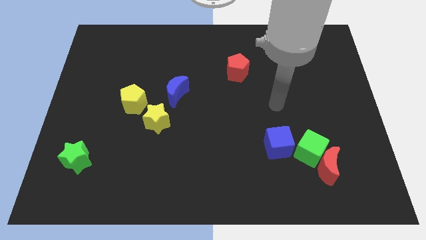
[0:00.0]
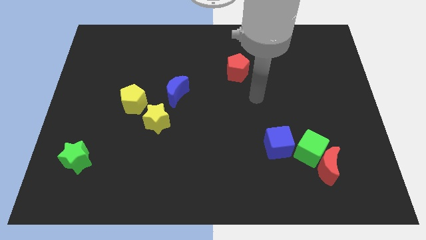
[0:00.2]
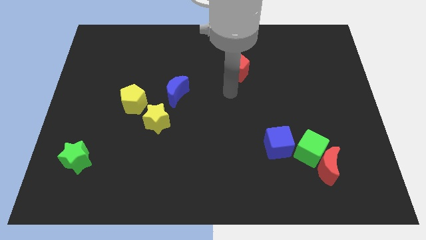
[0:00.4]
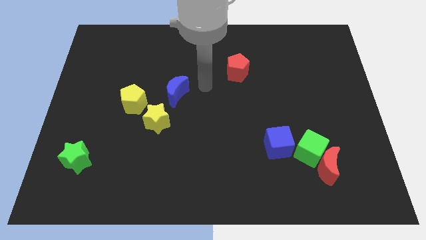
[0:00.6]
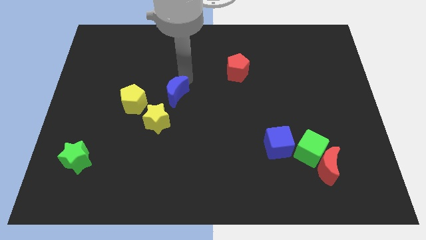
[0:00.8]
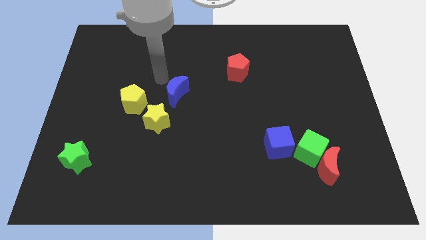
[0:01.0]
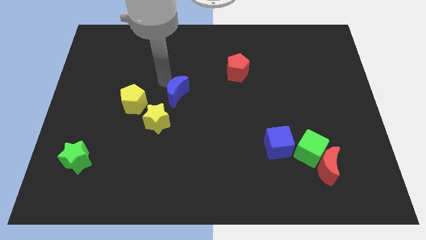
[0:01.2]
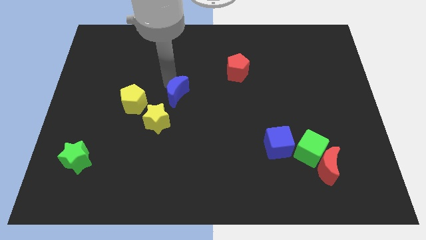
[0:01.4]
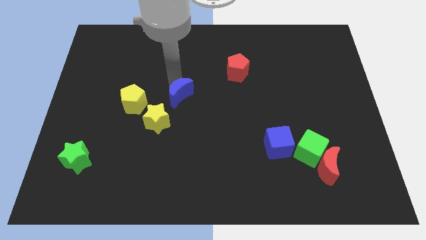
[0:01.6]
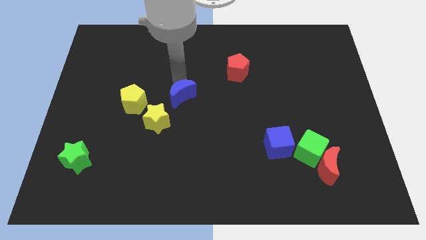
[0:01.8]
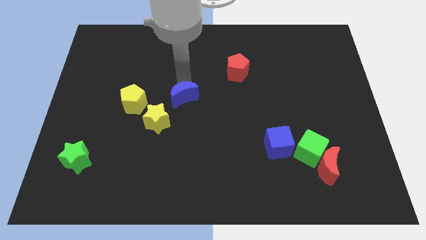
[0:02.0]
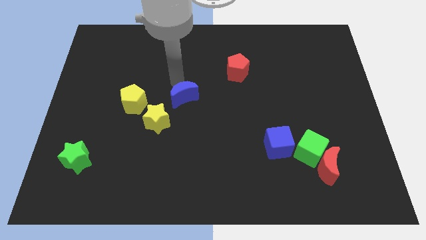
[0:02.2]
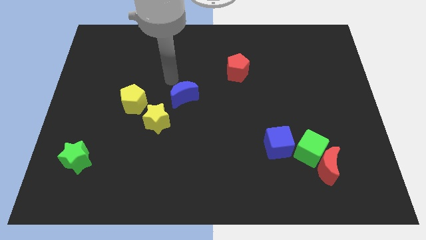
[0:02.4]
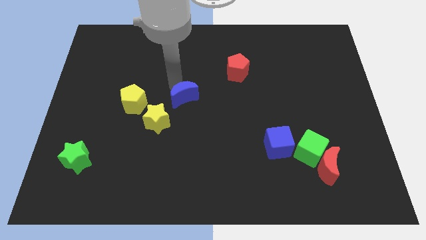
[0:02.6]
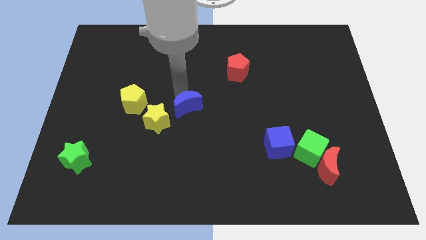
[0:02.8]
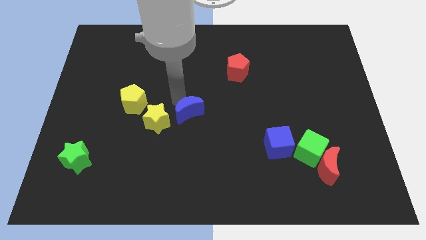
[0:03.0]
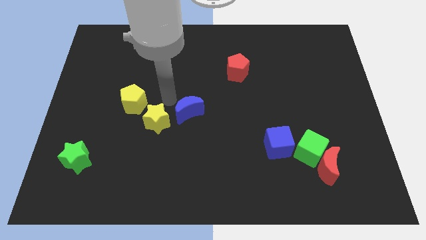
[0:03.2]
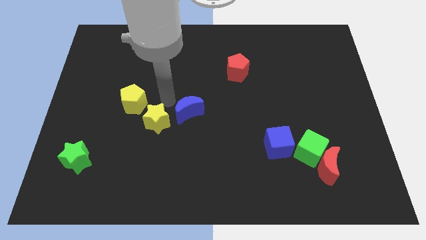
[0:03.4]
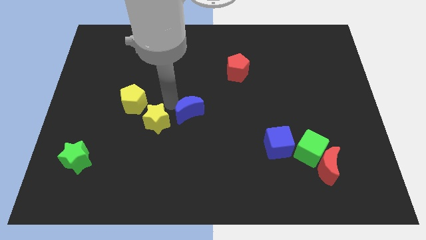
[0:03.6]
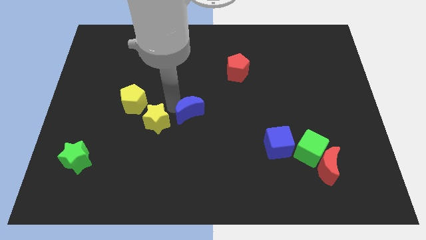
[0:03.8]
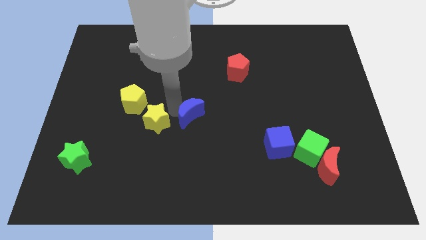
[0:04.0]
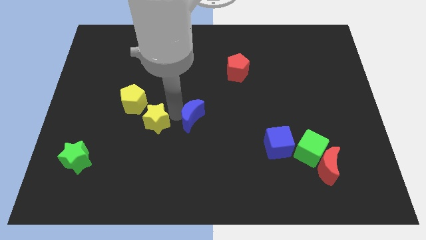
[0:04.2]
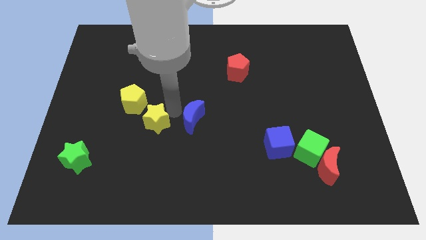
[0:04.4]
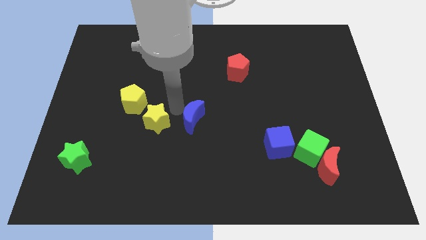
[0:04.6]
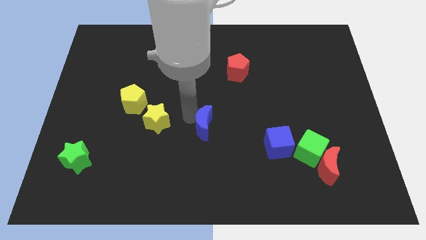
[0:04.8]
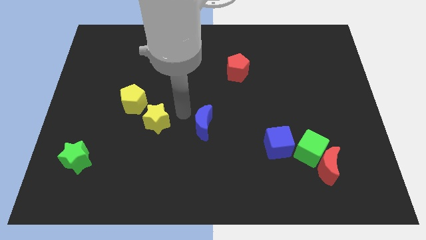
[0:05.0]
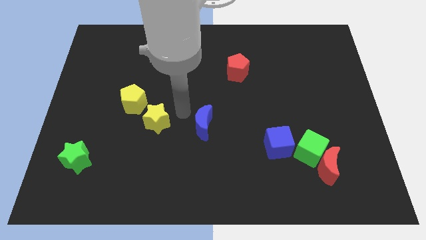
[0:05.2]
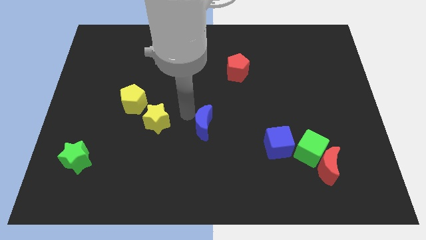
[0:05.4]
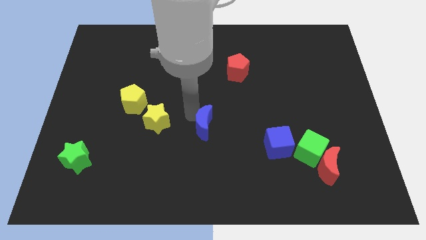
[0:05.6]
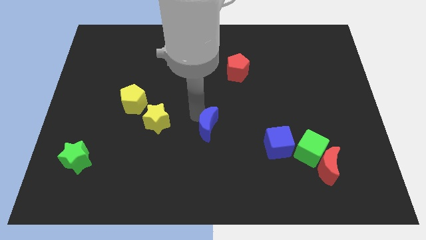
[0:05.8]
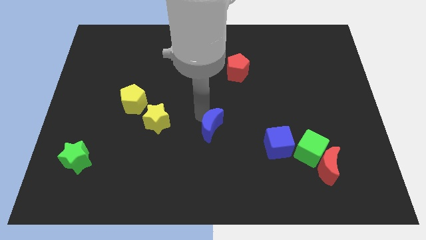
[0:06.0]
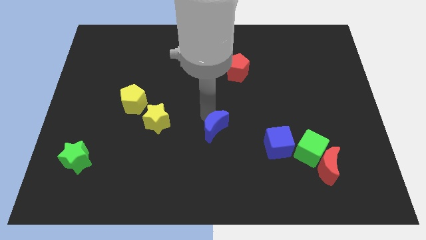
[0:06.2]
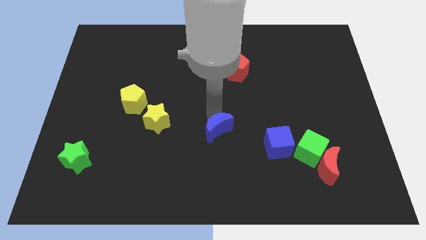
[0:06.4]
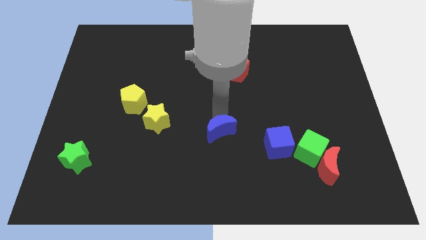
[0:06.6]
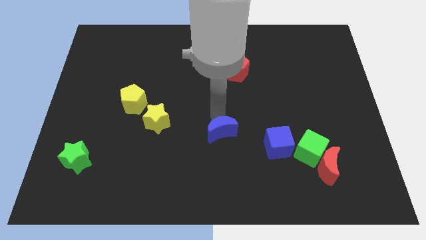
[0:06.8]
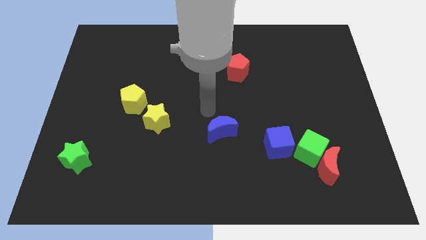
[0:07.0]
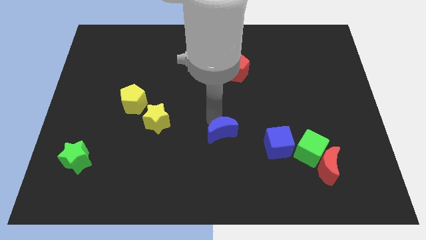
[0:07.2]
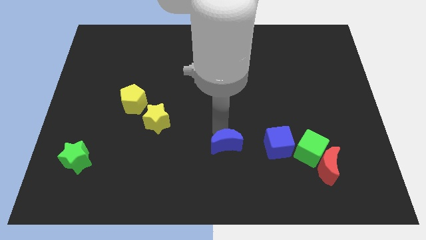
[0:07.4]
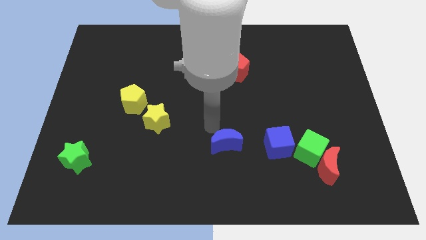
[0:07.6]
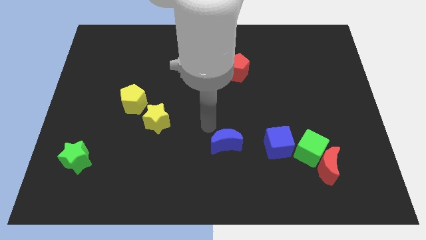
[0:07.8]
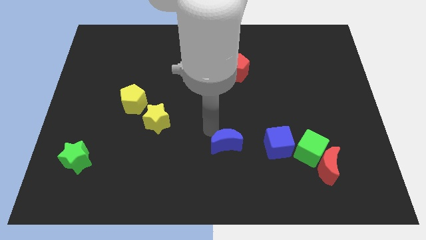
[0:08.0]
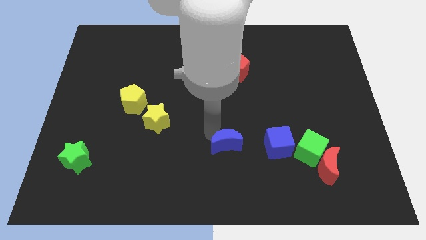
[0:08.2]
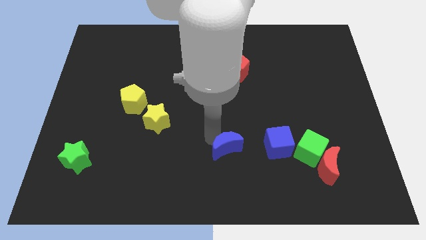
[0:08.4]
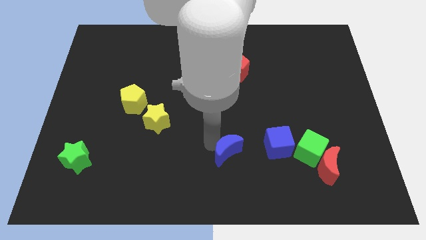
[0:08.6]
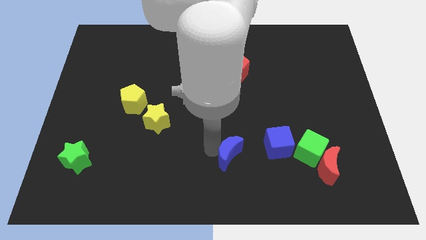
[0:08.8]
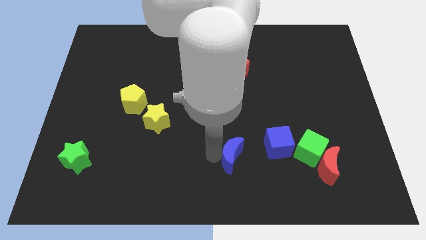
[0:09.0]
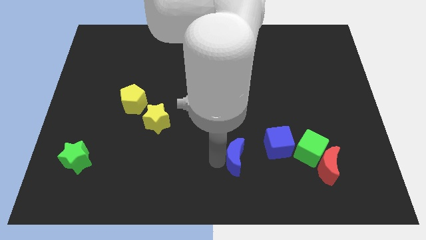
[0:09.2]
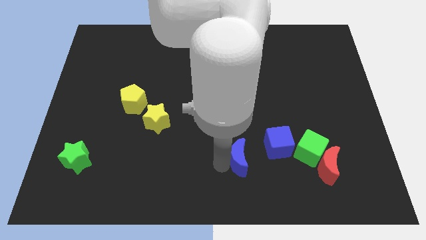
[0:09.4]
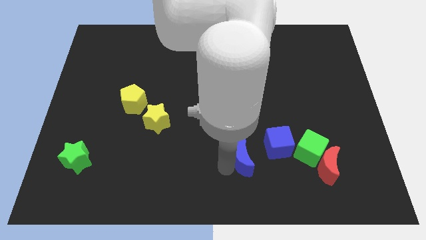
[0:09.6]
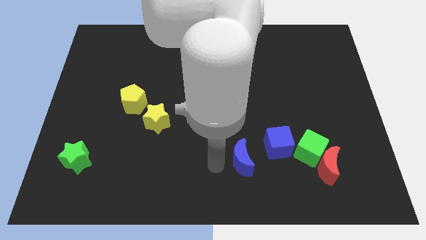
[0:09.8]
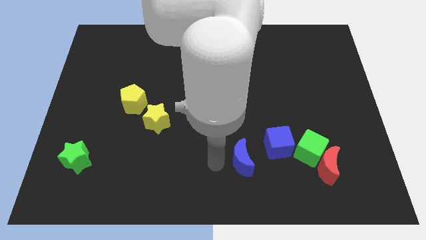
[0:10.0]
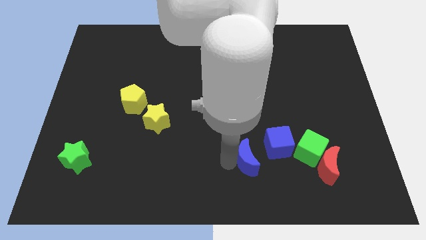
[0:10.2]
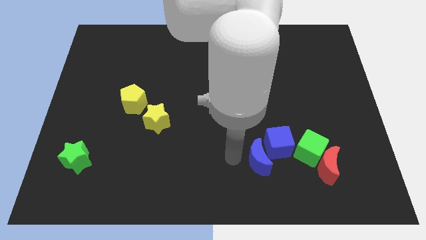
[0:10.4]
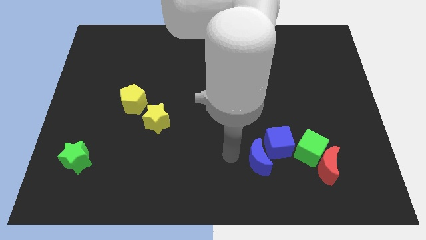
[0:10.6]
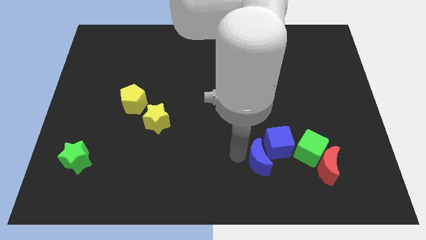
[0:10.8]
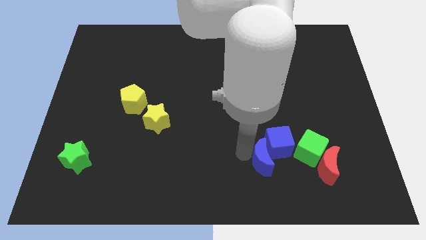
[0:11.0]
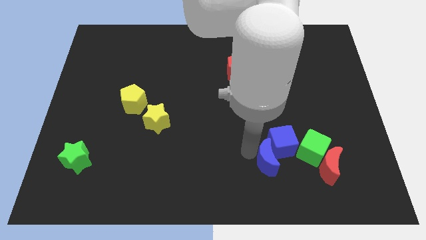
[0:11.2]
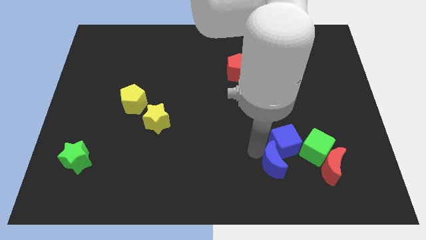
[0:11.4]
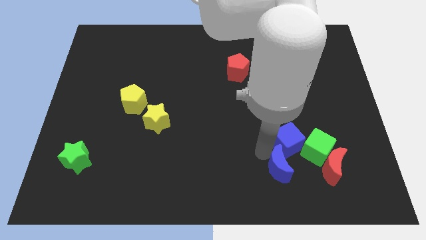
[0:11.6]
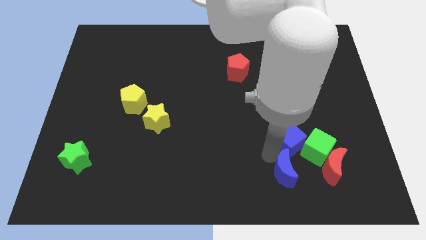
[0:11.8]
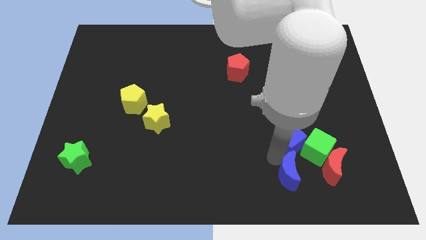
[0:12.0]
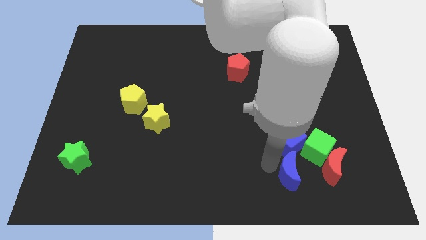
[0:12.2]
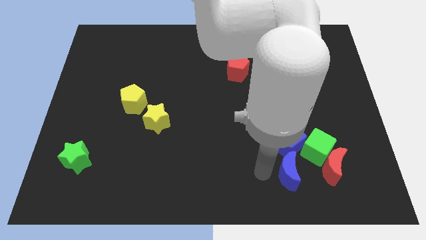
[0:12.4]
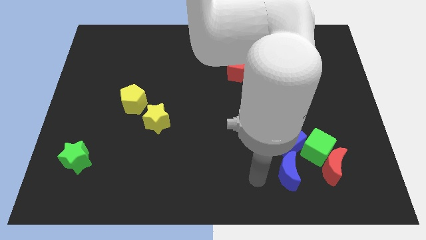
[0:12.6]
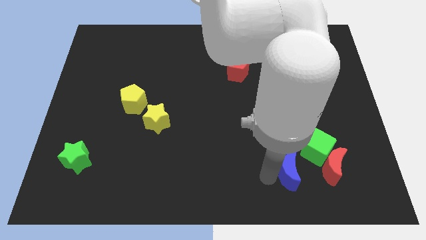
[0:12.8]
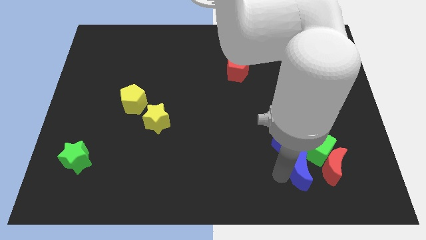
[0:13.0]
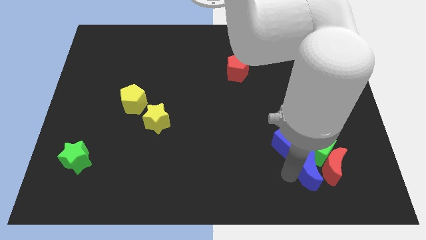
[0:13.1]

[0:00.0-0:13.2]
move the blue moon to the red moon
